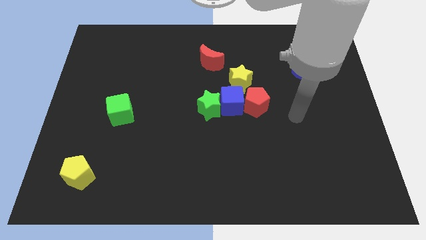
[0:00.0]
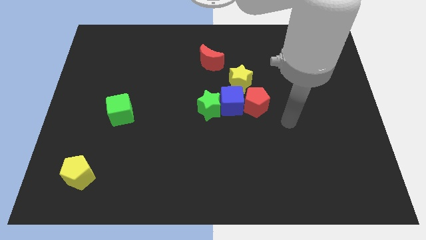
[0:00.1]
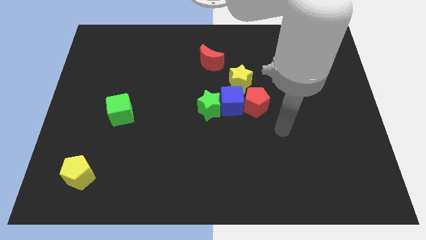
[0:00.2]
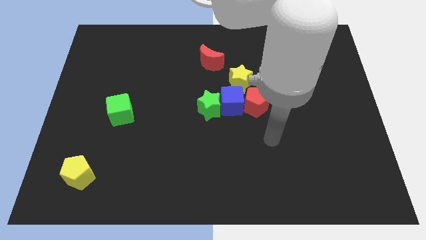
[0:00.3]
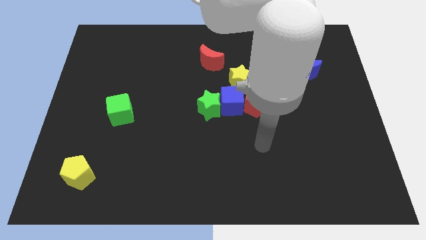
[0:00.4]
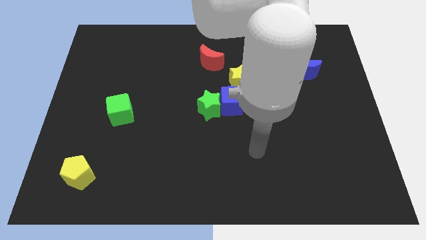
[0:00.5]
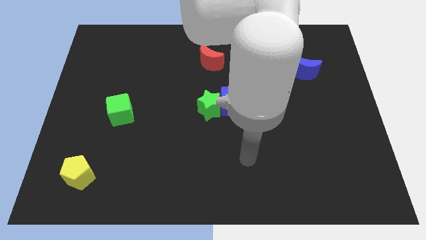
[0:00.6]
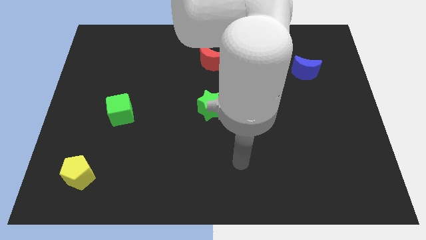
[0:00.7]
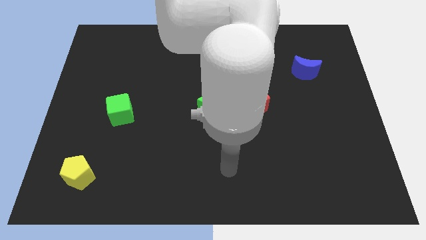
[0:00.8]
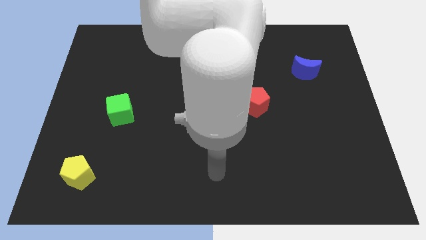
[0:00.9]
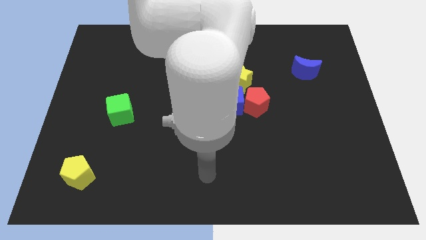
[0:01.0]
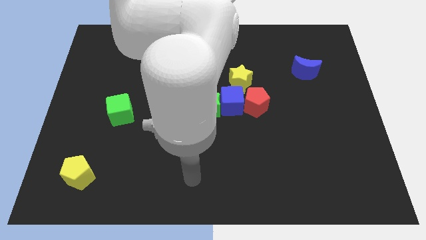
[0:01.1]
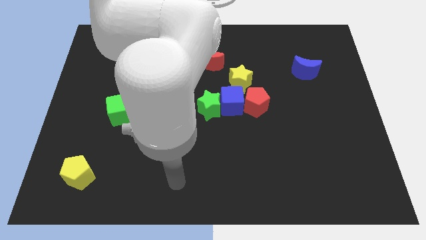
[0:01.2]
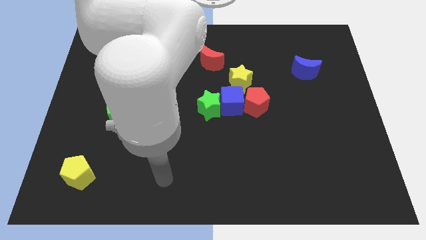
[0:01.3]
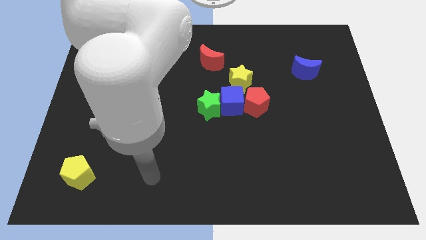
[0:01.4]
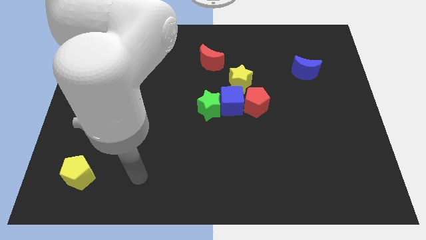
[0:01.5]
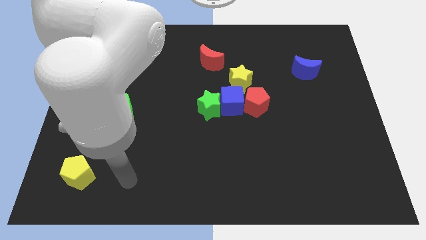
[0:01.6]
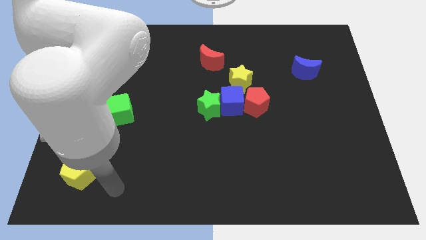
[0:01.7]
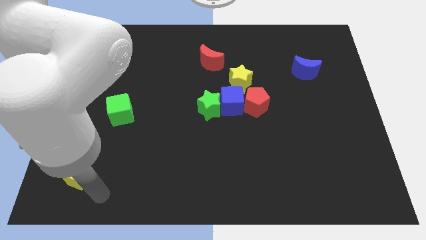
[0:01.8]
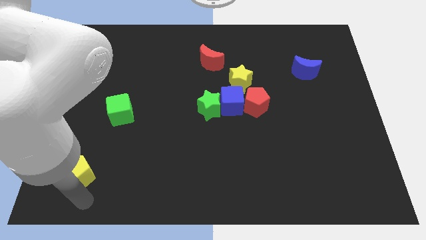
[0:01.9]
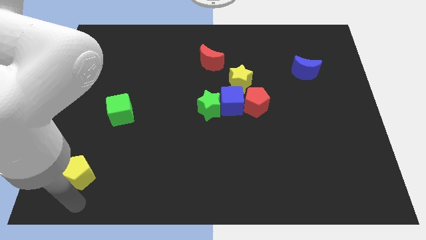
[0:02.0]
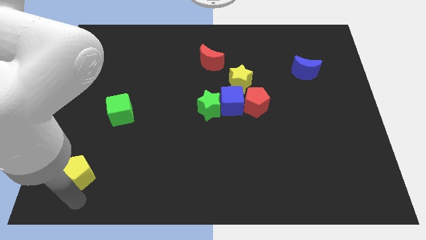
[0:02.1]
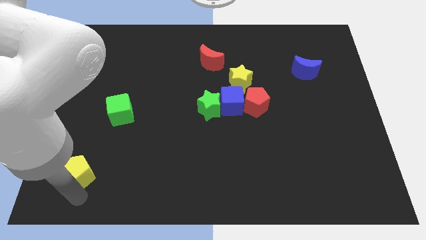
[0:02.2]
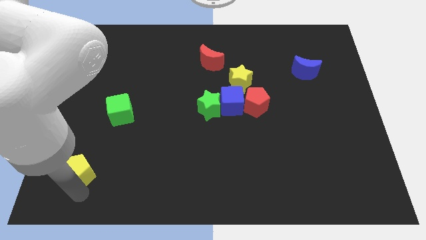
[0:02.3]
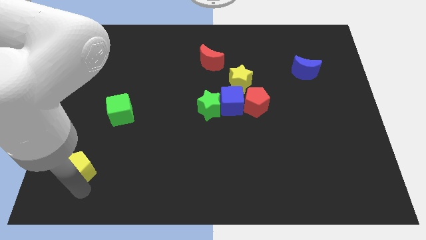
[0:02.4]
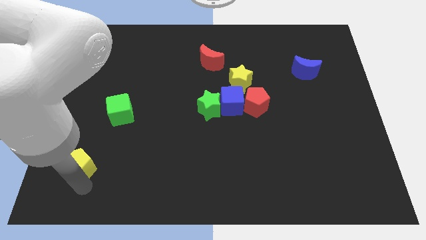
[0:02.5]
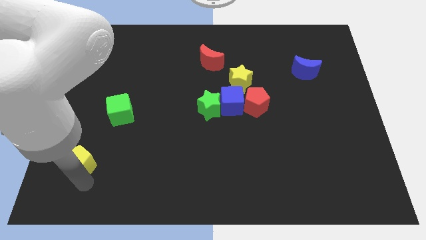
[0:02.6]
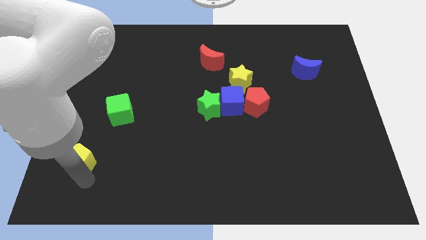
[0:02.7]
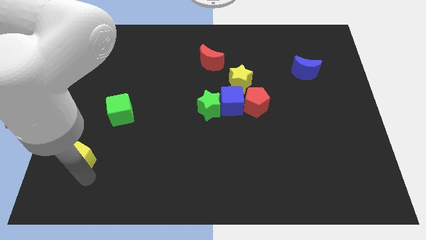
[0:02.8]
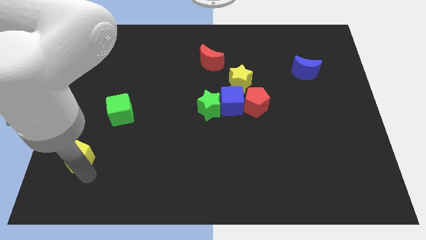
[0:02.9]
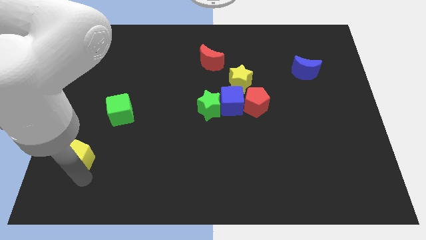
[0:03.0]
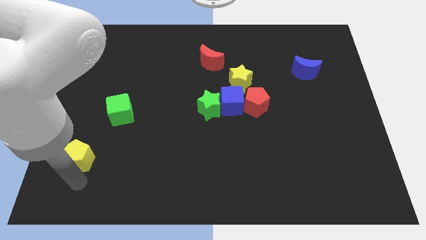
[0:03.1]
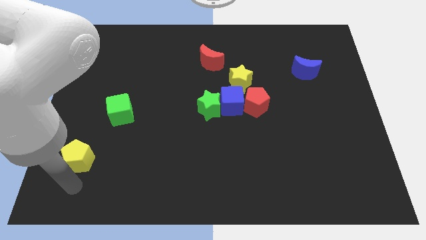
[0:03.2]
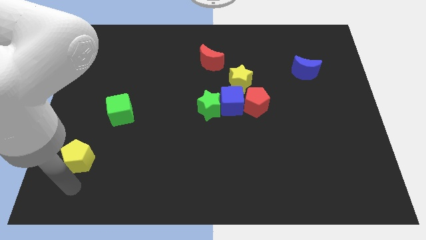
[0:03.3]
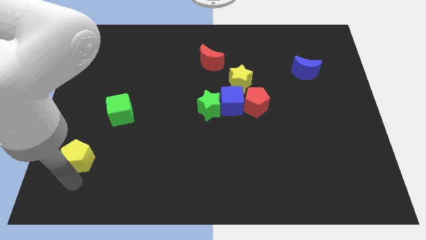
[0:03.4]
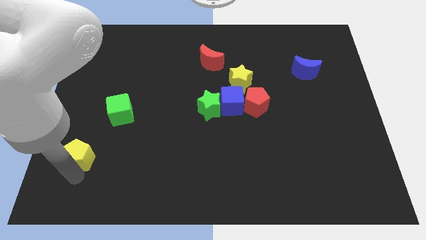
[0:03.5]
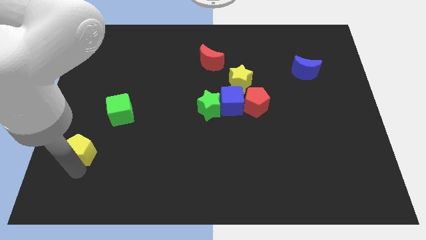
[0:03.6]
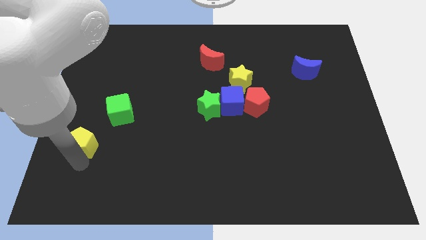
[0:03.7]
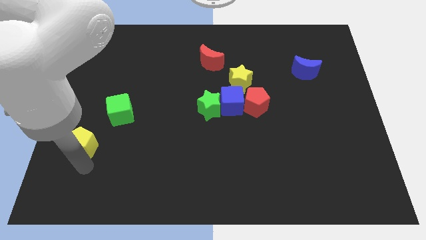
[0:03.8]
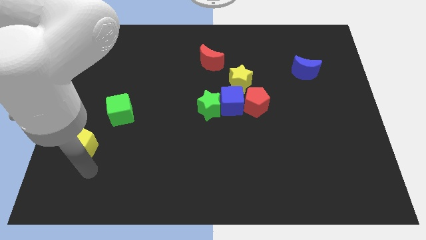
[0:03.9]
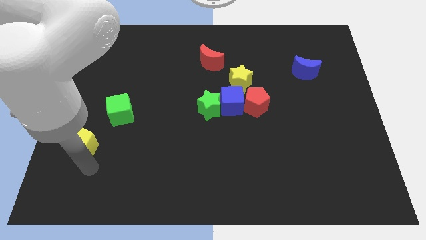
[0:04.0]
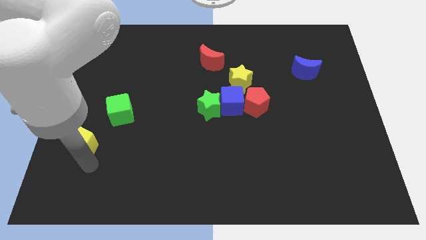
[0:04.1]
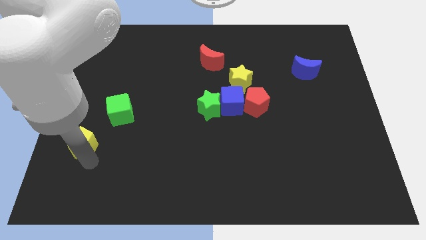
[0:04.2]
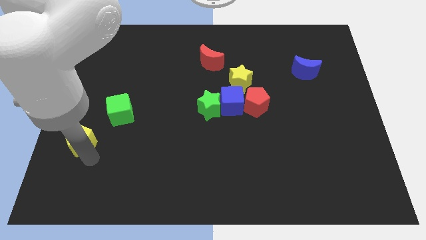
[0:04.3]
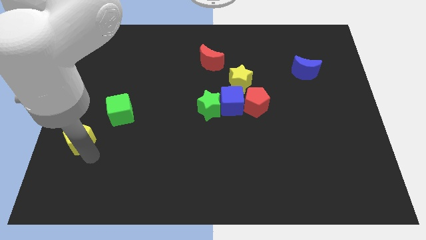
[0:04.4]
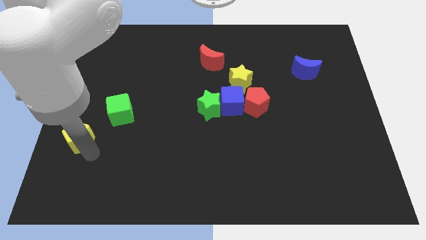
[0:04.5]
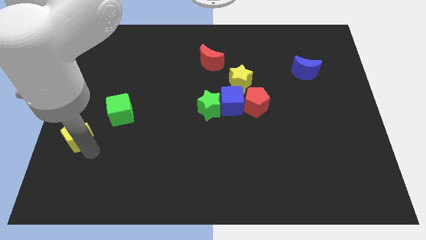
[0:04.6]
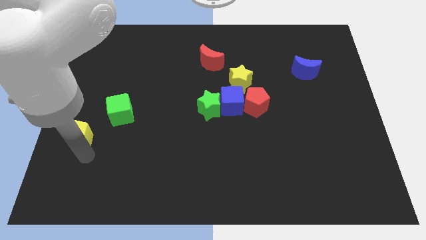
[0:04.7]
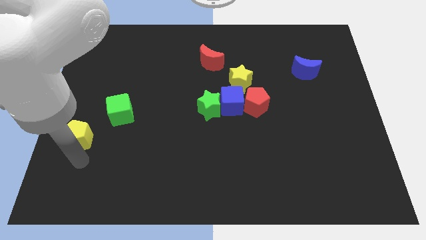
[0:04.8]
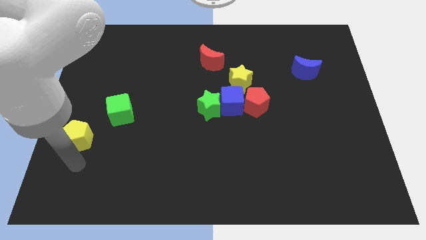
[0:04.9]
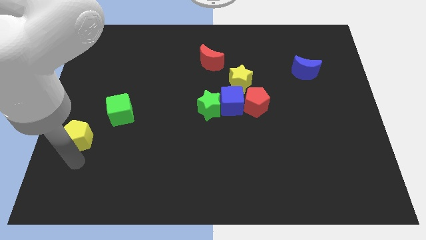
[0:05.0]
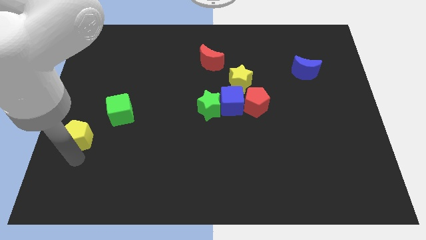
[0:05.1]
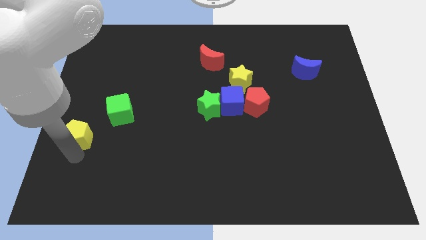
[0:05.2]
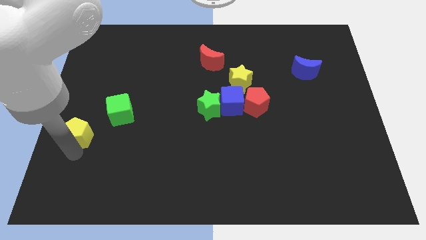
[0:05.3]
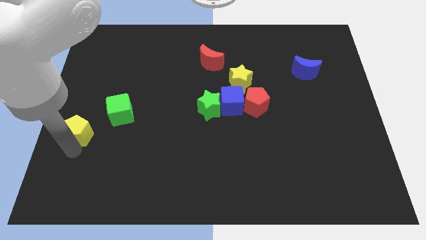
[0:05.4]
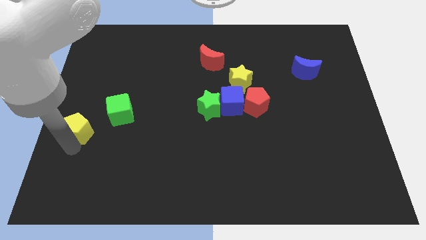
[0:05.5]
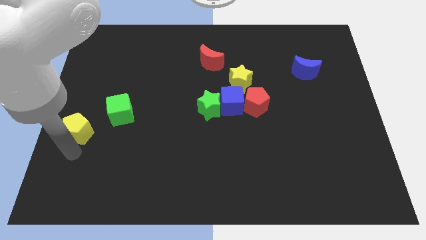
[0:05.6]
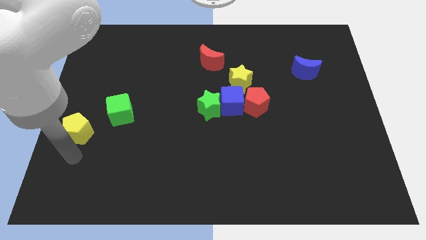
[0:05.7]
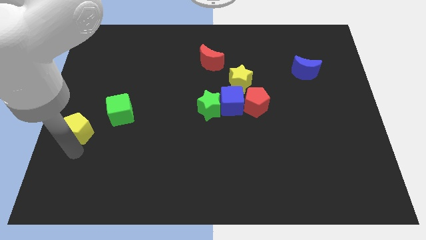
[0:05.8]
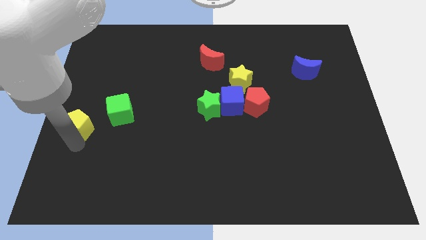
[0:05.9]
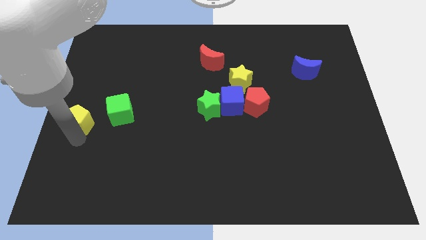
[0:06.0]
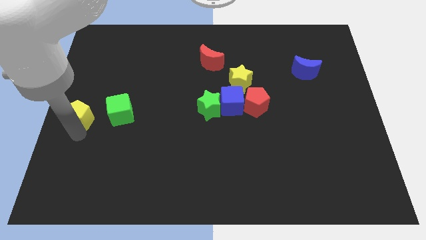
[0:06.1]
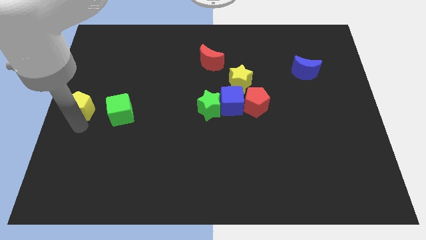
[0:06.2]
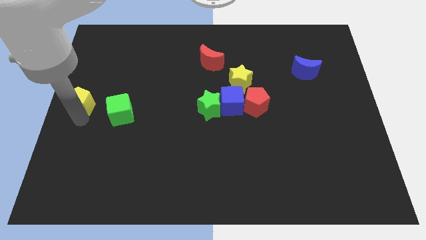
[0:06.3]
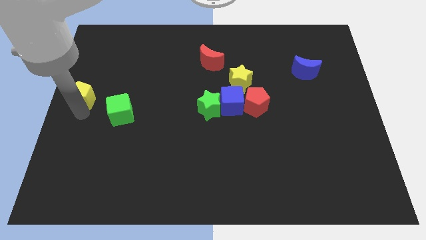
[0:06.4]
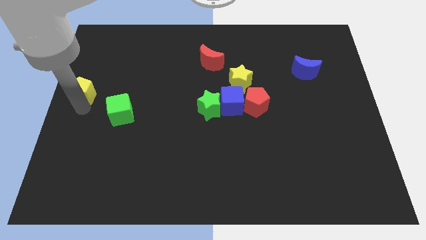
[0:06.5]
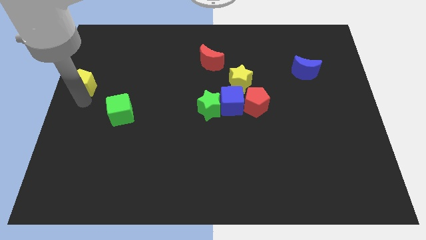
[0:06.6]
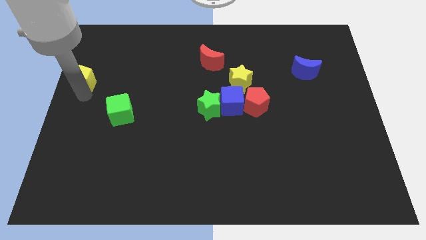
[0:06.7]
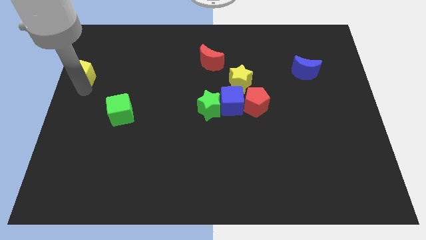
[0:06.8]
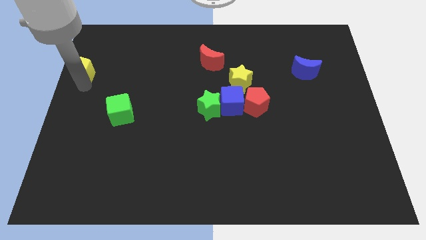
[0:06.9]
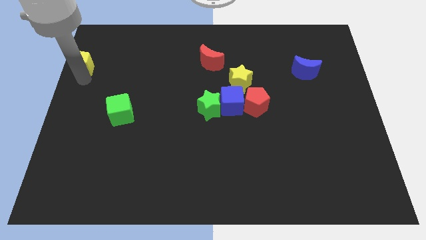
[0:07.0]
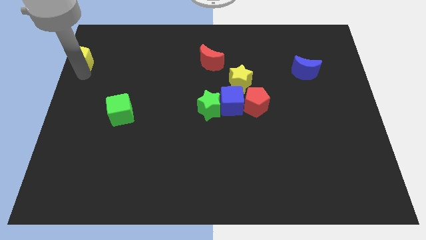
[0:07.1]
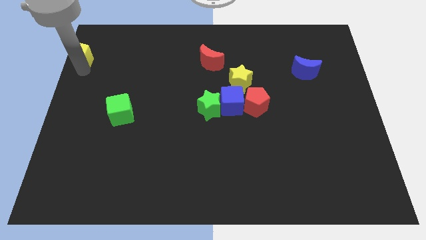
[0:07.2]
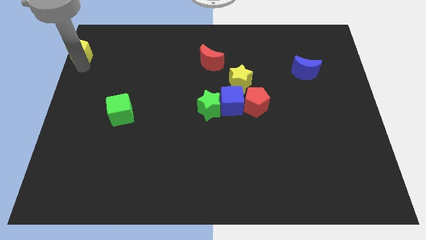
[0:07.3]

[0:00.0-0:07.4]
push the yellow pentagon to the top left corner

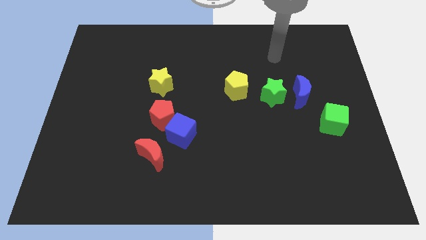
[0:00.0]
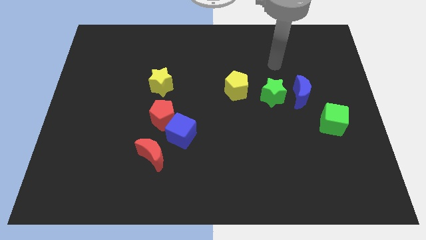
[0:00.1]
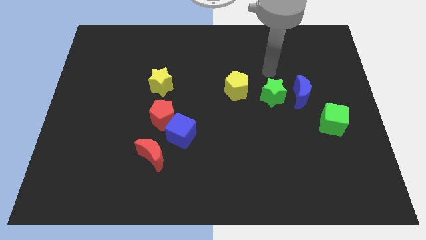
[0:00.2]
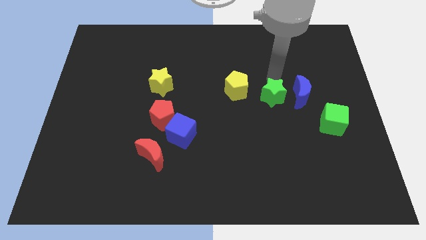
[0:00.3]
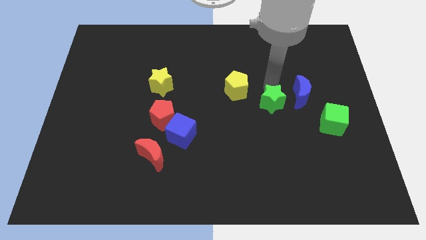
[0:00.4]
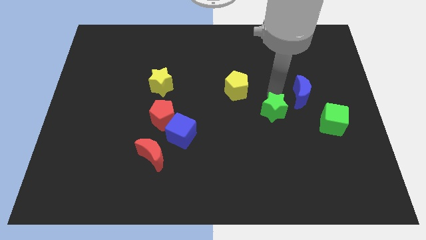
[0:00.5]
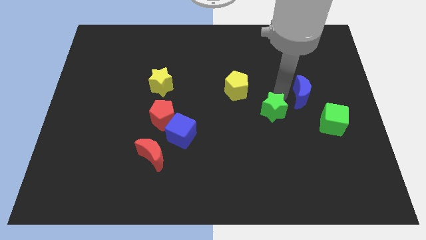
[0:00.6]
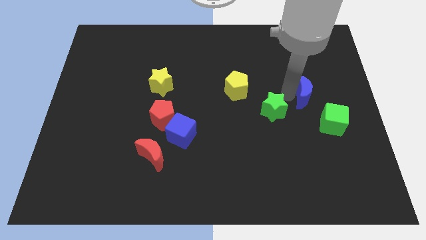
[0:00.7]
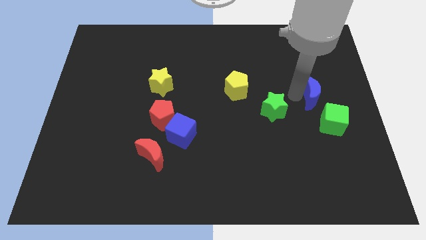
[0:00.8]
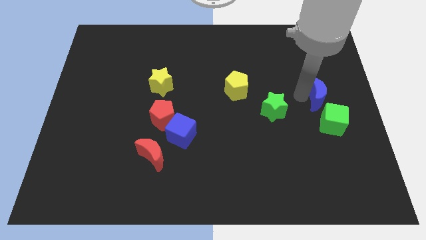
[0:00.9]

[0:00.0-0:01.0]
move the blue moon to the center right
